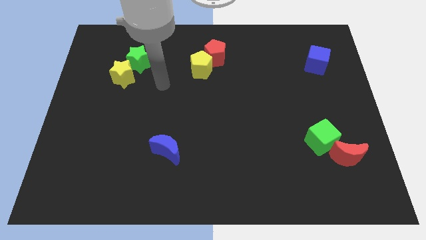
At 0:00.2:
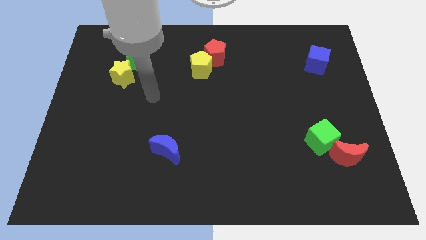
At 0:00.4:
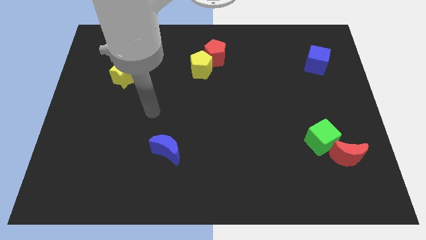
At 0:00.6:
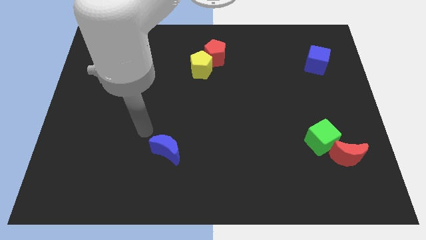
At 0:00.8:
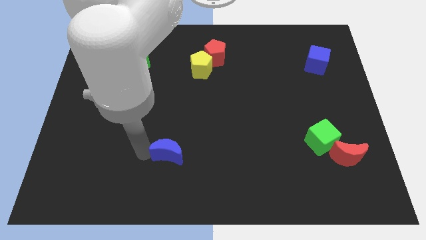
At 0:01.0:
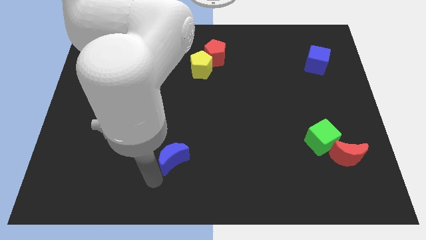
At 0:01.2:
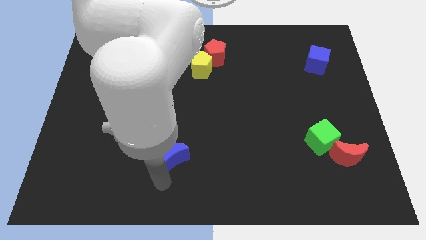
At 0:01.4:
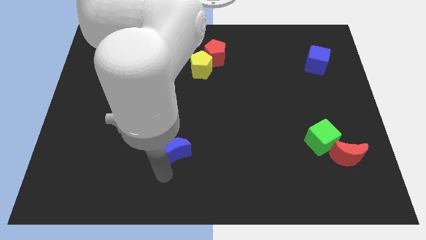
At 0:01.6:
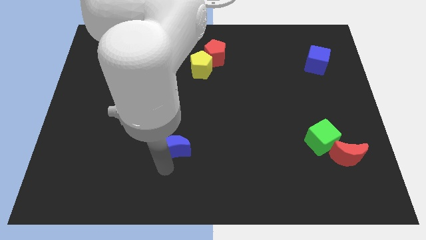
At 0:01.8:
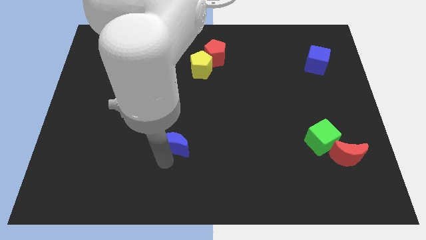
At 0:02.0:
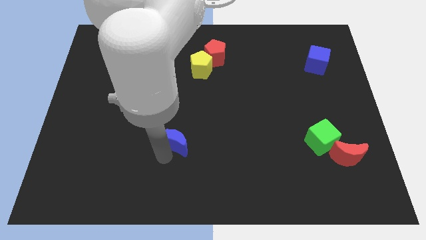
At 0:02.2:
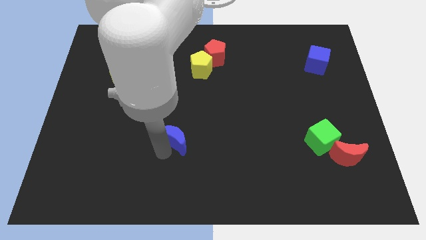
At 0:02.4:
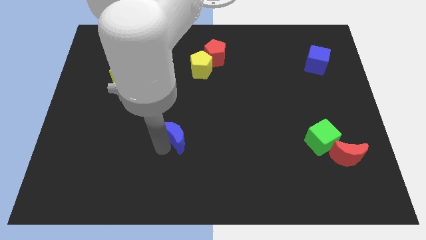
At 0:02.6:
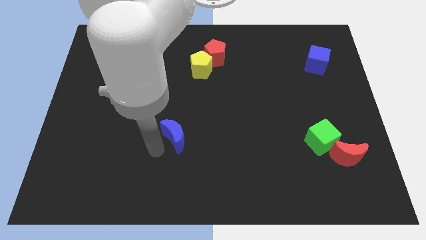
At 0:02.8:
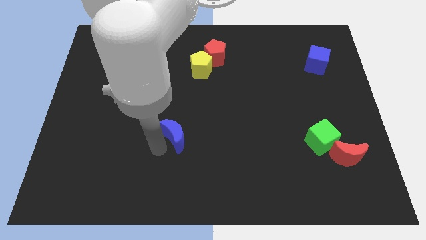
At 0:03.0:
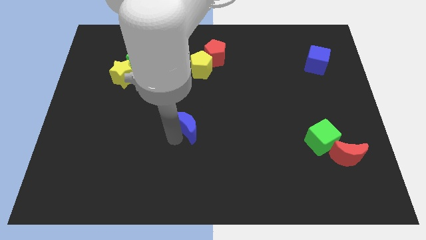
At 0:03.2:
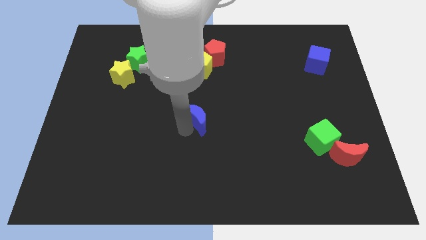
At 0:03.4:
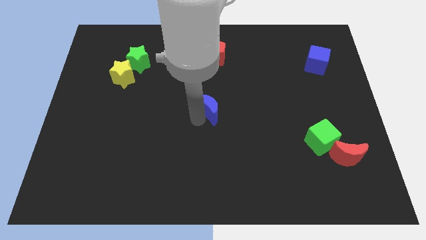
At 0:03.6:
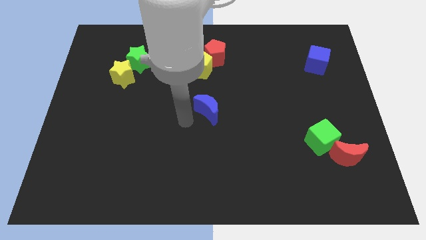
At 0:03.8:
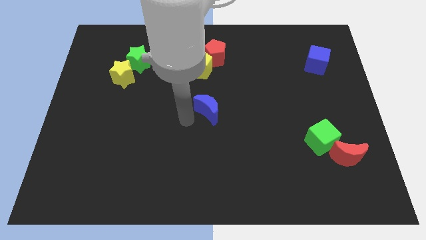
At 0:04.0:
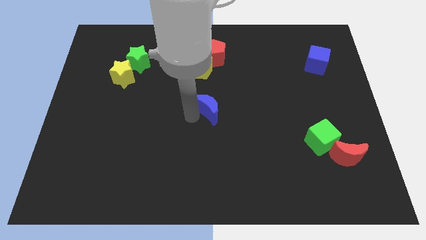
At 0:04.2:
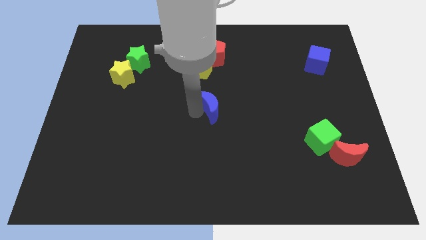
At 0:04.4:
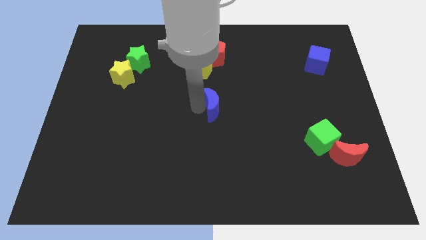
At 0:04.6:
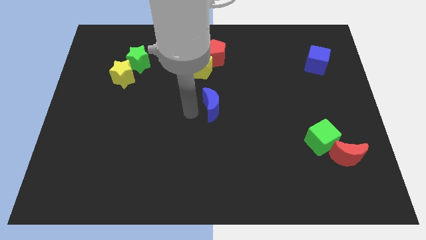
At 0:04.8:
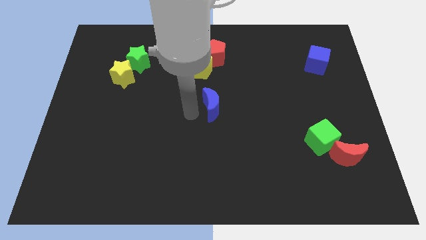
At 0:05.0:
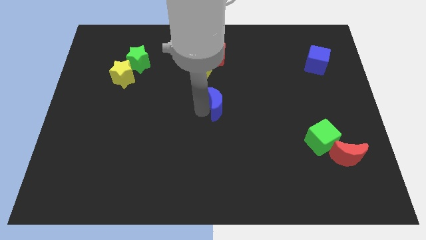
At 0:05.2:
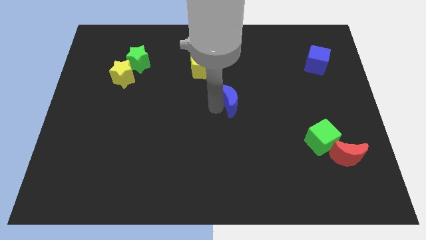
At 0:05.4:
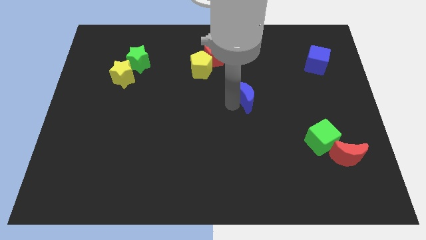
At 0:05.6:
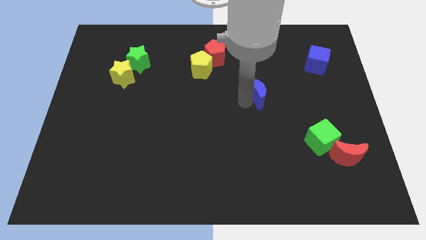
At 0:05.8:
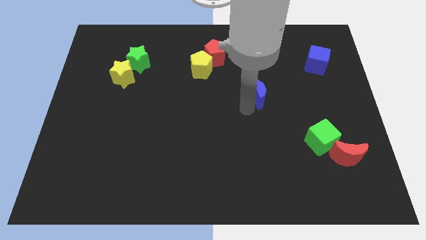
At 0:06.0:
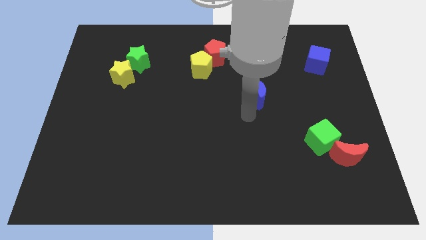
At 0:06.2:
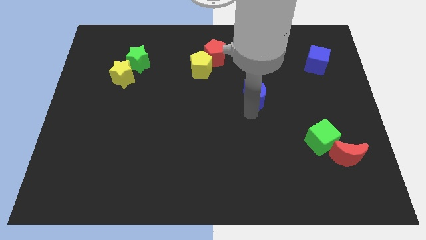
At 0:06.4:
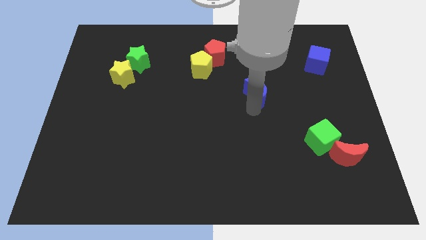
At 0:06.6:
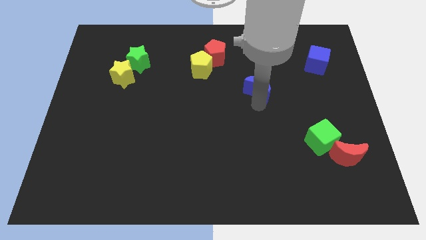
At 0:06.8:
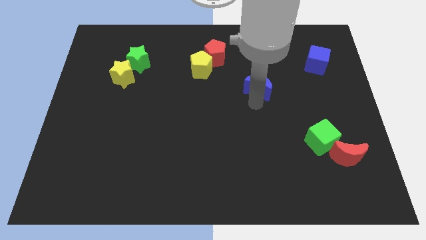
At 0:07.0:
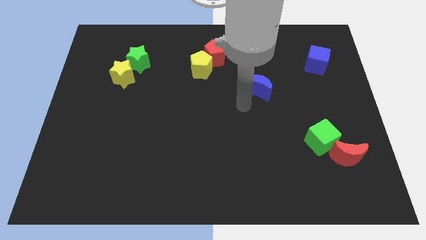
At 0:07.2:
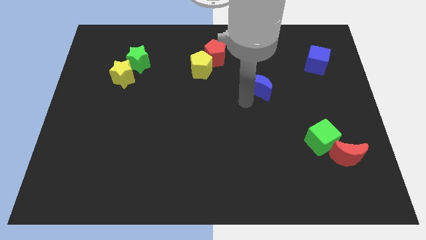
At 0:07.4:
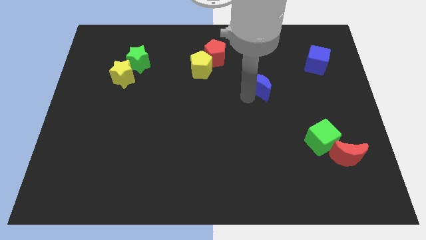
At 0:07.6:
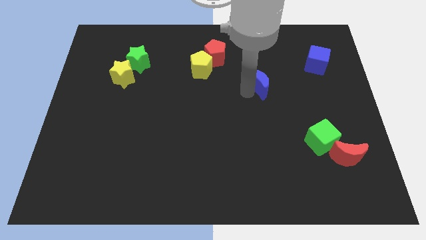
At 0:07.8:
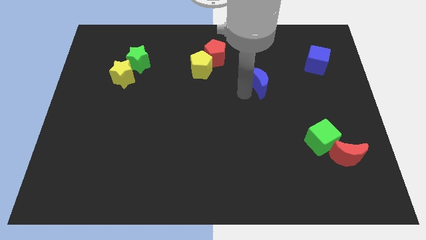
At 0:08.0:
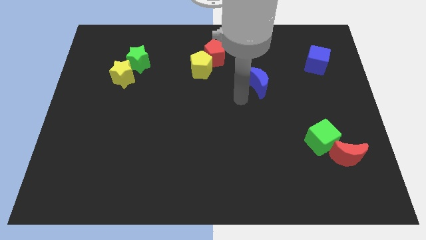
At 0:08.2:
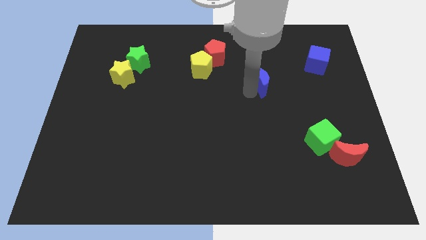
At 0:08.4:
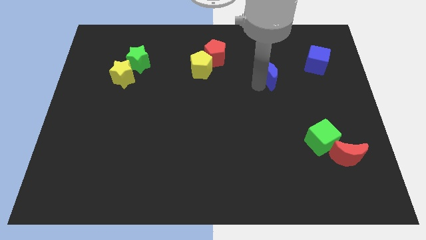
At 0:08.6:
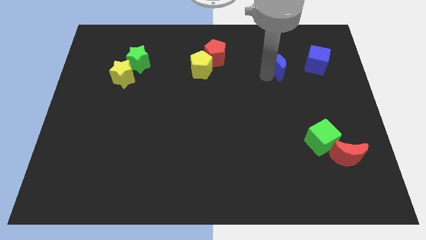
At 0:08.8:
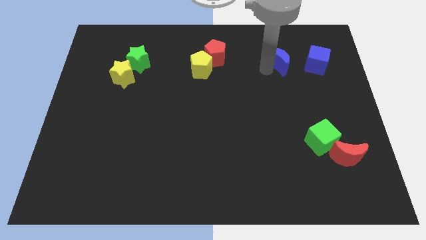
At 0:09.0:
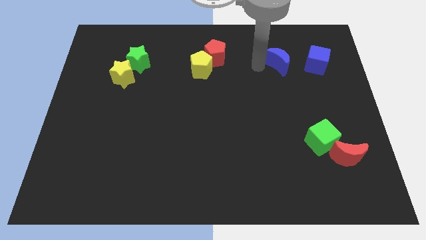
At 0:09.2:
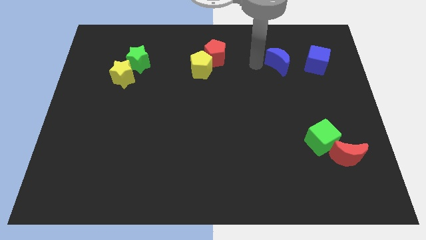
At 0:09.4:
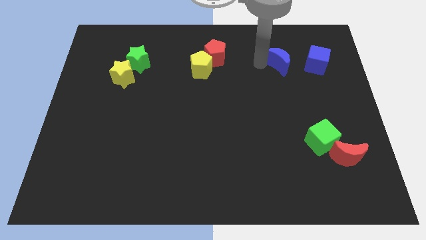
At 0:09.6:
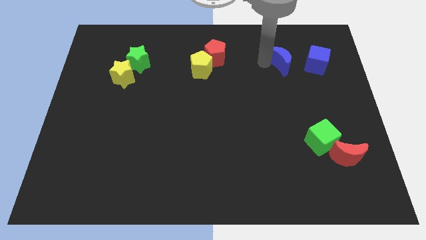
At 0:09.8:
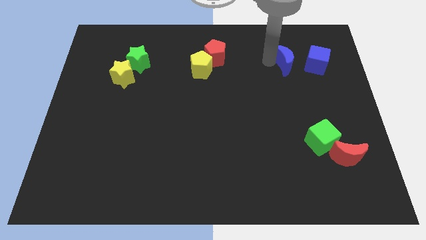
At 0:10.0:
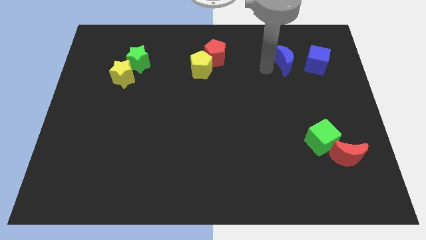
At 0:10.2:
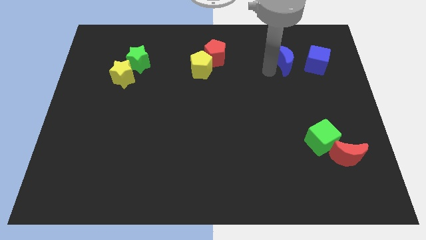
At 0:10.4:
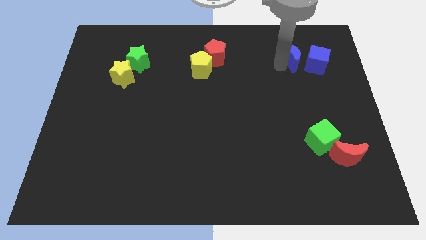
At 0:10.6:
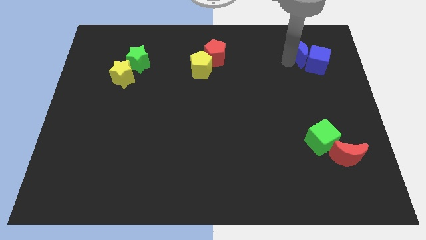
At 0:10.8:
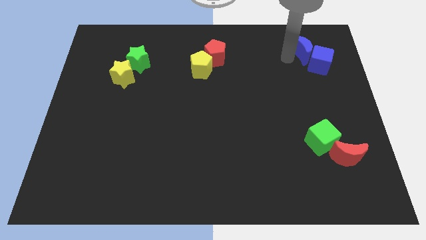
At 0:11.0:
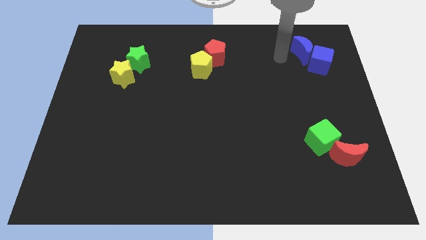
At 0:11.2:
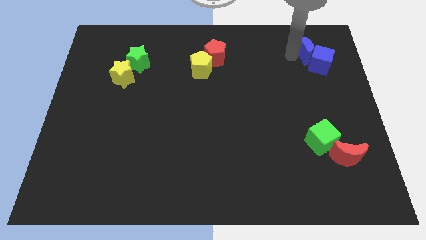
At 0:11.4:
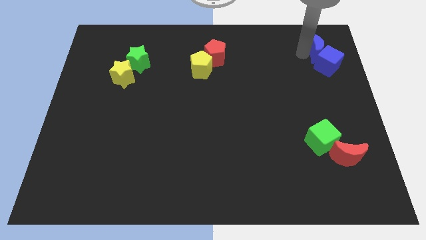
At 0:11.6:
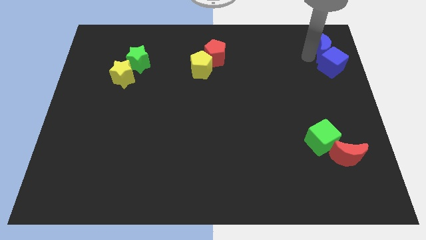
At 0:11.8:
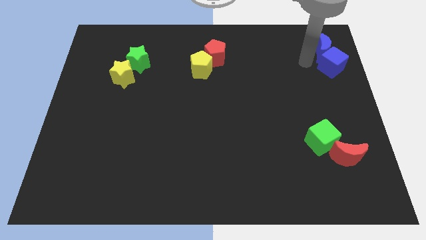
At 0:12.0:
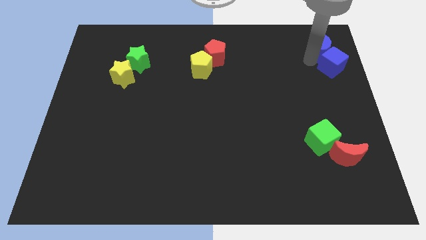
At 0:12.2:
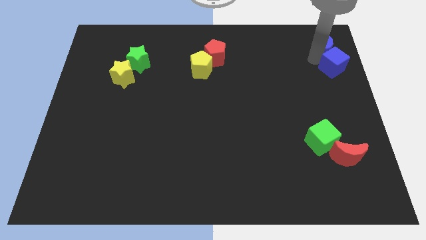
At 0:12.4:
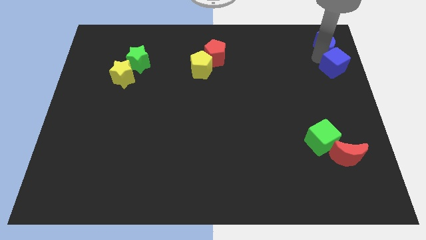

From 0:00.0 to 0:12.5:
put the blue moon to the top right corner

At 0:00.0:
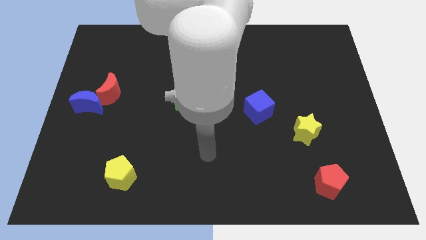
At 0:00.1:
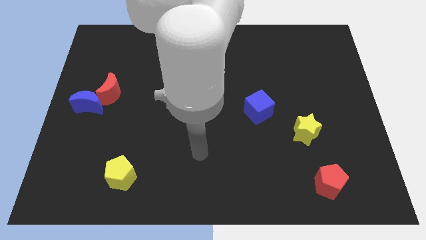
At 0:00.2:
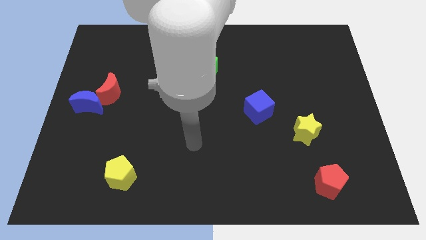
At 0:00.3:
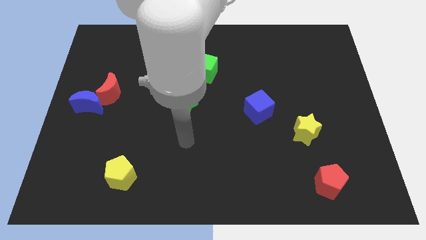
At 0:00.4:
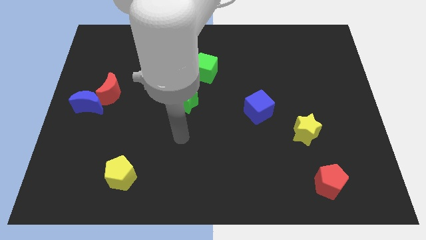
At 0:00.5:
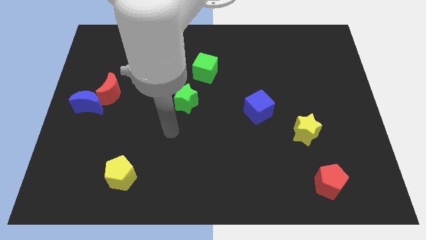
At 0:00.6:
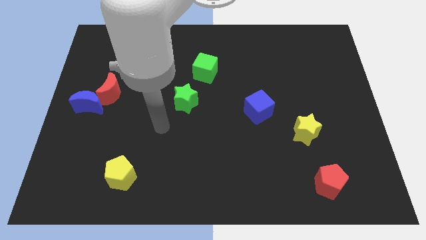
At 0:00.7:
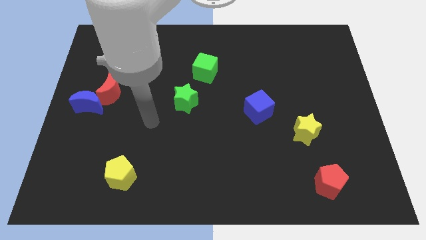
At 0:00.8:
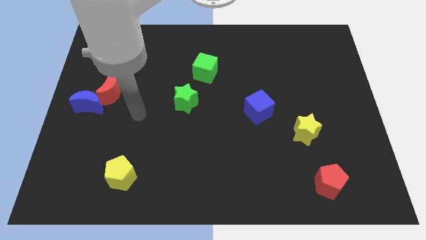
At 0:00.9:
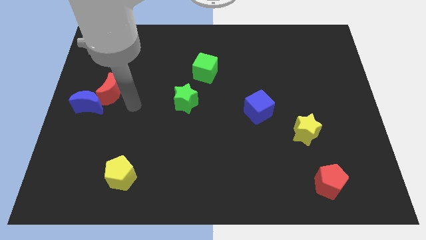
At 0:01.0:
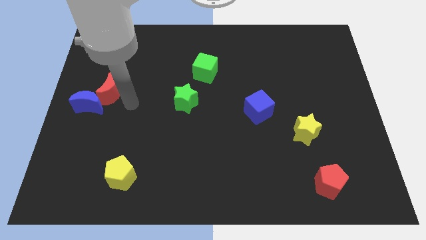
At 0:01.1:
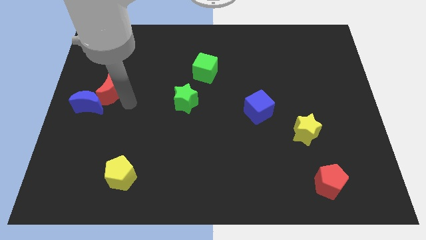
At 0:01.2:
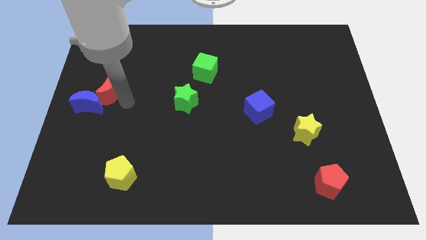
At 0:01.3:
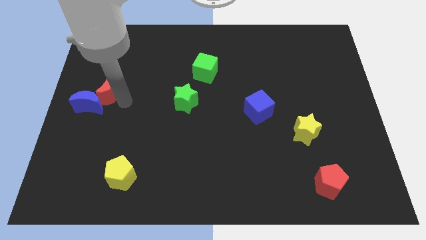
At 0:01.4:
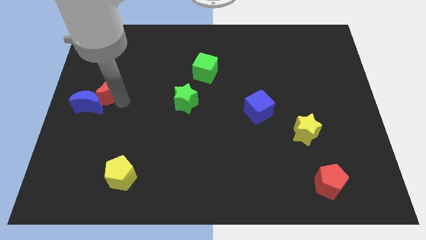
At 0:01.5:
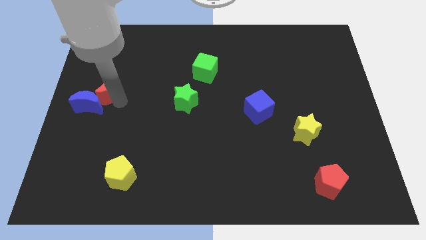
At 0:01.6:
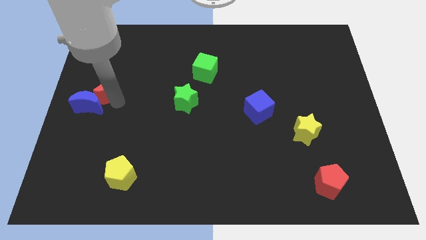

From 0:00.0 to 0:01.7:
slide the red moon to the left side
